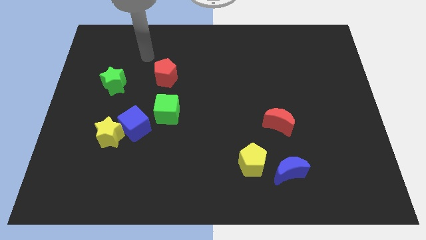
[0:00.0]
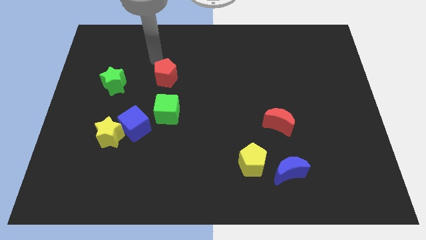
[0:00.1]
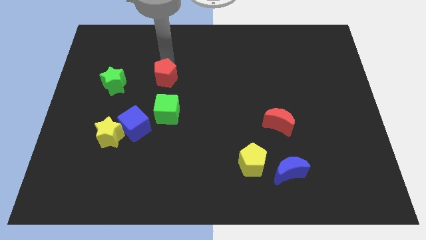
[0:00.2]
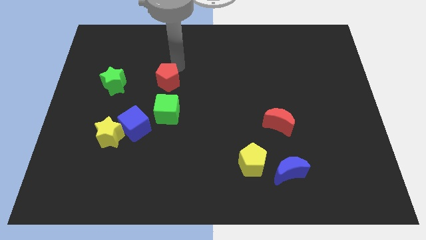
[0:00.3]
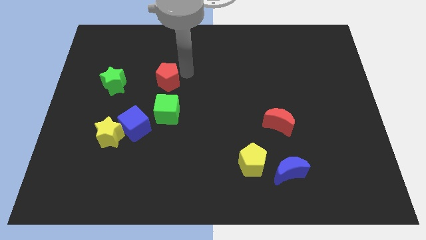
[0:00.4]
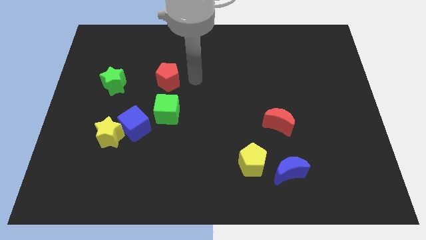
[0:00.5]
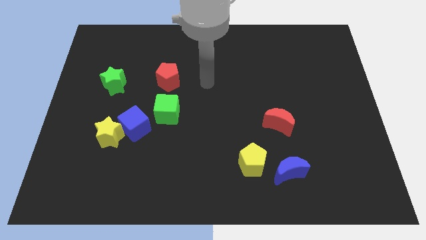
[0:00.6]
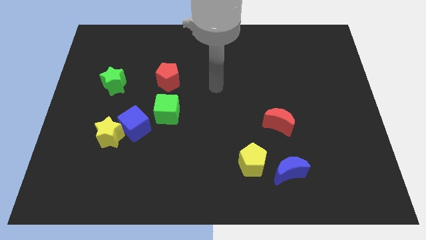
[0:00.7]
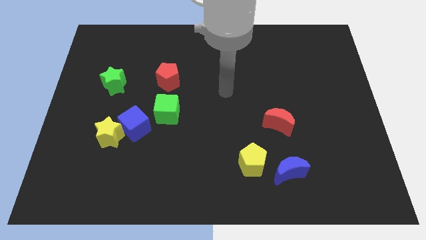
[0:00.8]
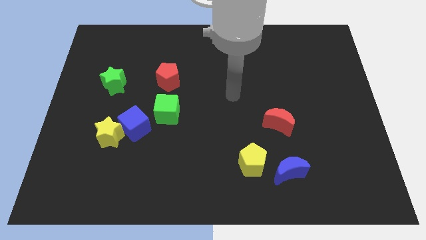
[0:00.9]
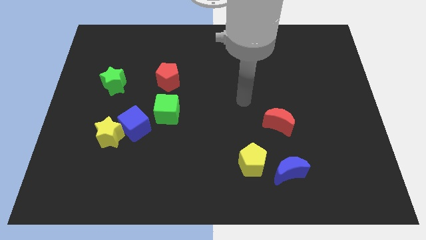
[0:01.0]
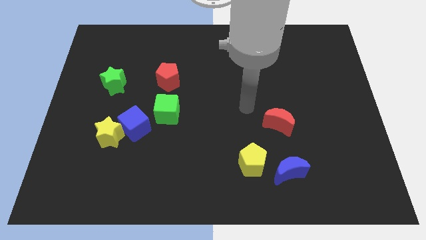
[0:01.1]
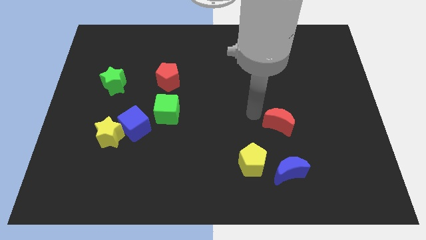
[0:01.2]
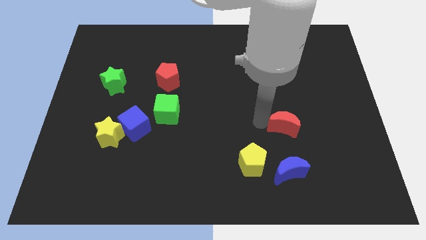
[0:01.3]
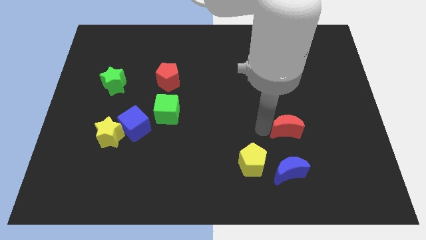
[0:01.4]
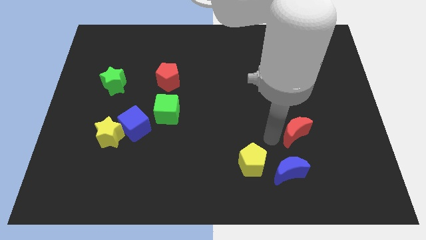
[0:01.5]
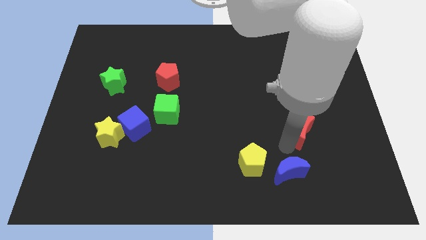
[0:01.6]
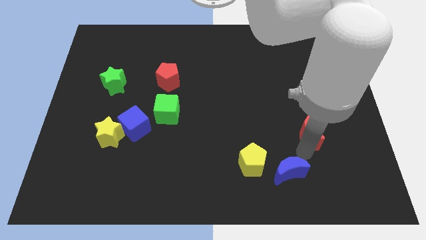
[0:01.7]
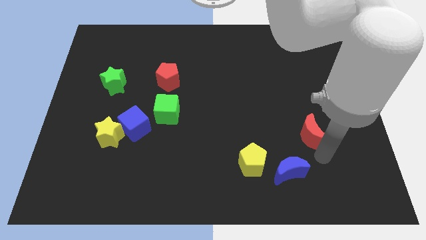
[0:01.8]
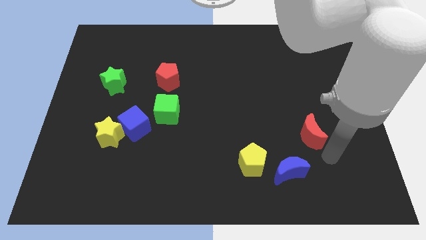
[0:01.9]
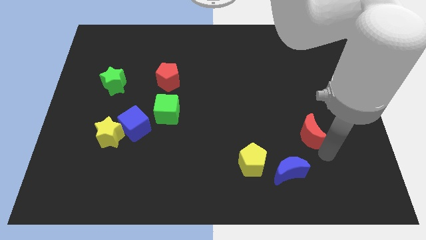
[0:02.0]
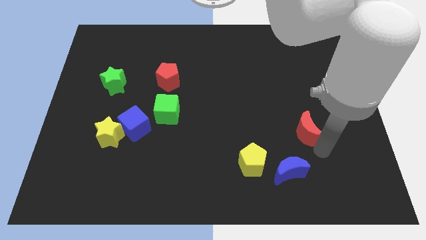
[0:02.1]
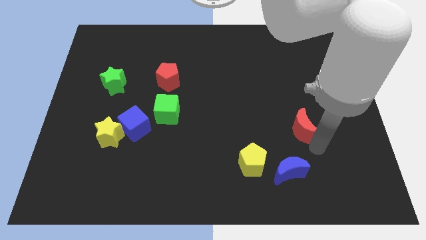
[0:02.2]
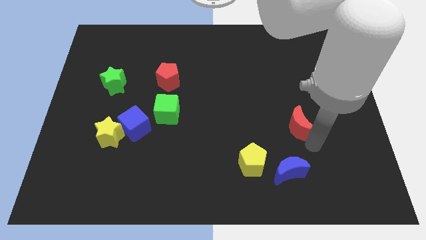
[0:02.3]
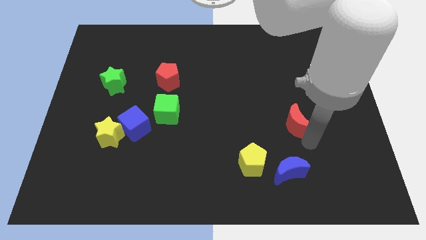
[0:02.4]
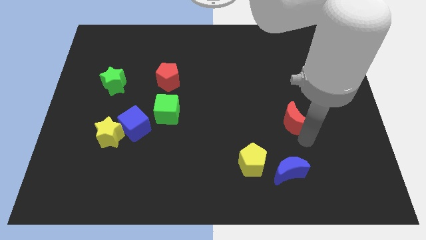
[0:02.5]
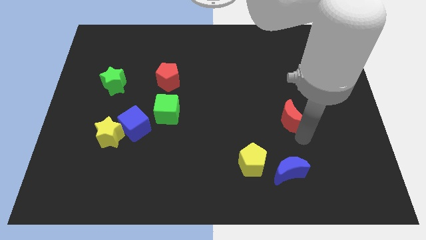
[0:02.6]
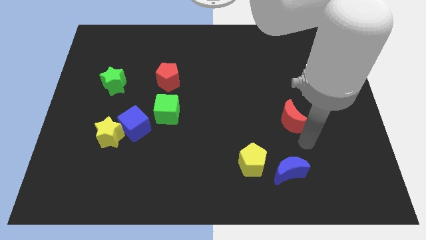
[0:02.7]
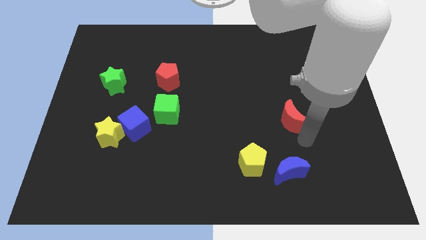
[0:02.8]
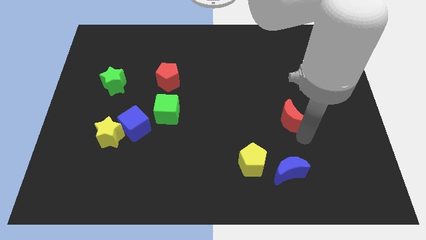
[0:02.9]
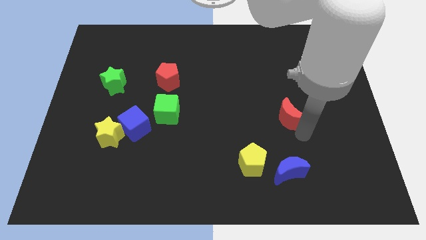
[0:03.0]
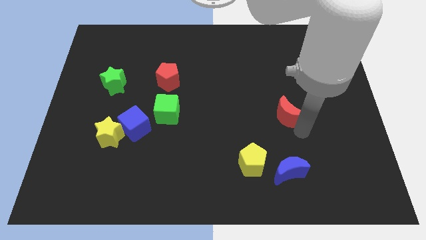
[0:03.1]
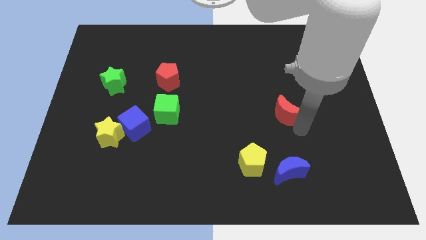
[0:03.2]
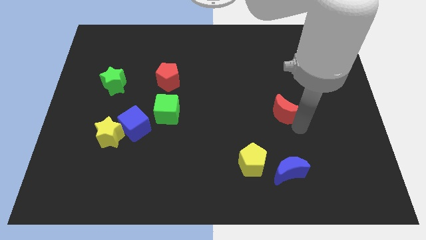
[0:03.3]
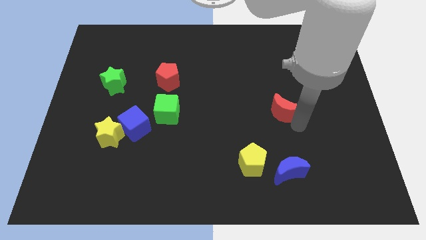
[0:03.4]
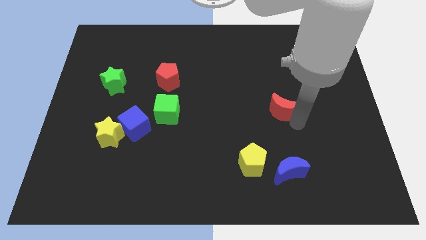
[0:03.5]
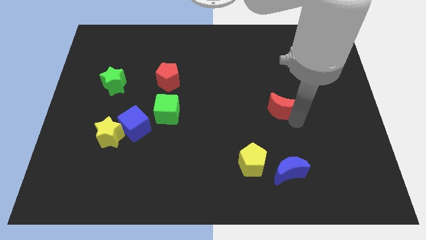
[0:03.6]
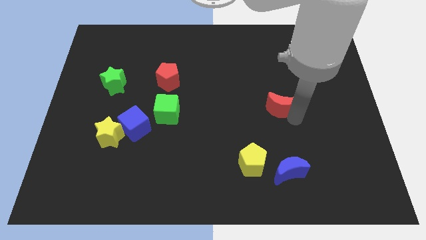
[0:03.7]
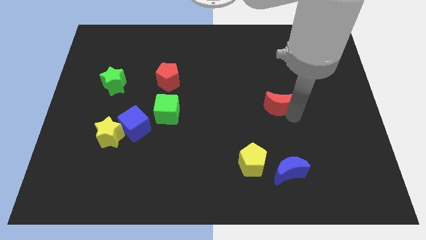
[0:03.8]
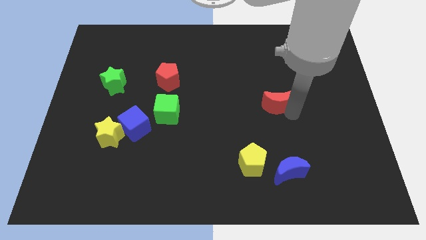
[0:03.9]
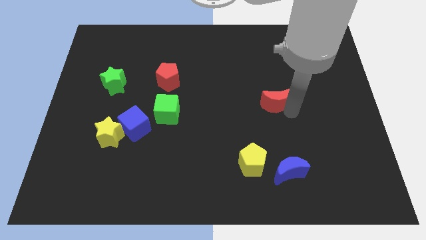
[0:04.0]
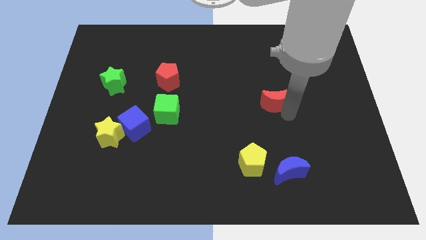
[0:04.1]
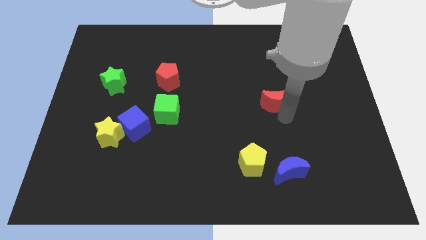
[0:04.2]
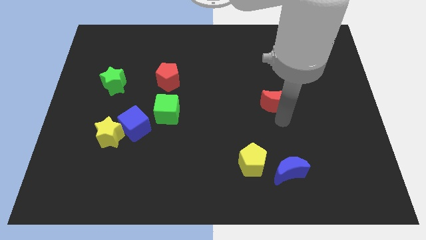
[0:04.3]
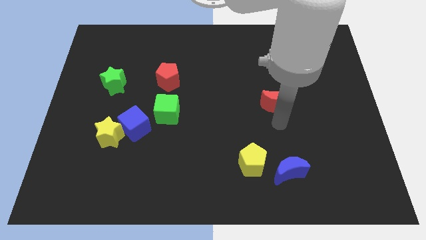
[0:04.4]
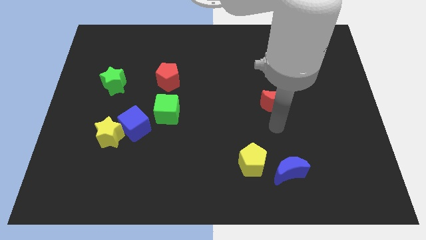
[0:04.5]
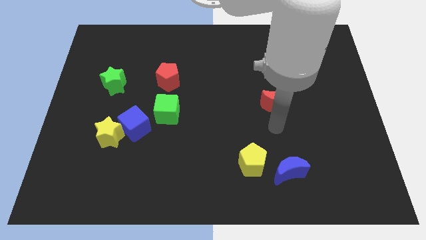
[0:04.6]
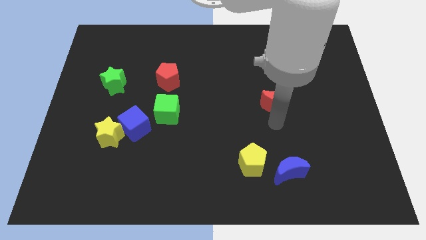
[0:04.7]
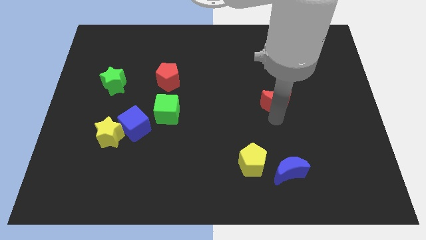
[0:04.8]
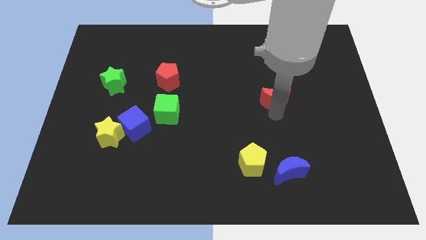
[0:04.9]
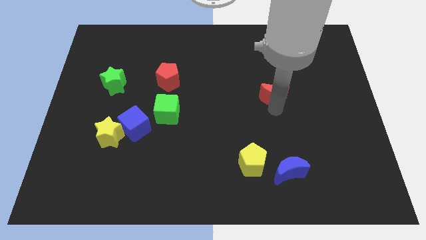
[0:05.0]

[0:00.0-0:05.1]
slightly move the red moon upwards

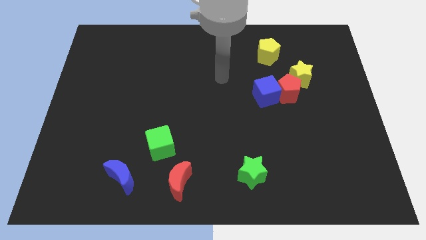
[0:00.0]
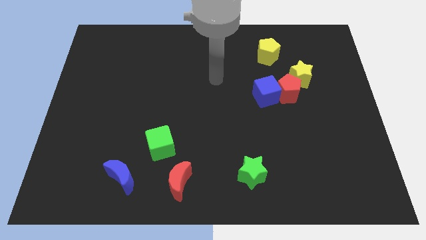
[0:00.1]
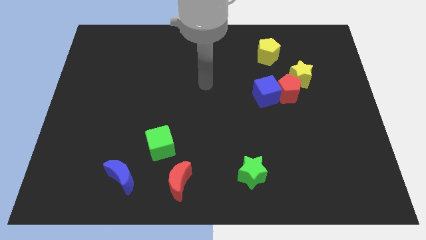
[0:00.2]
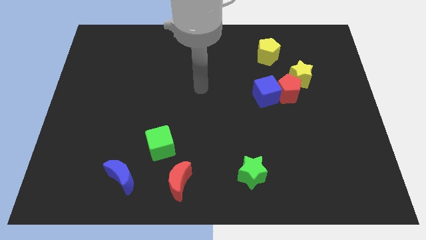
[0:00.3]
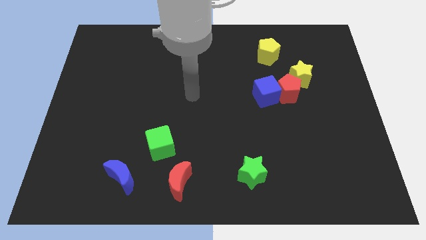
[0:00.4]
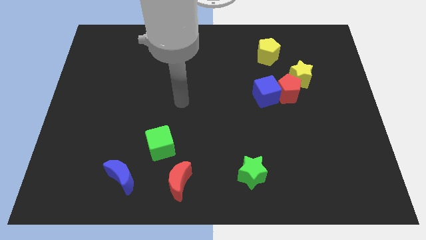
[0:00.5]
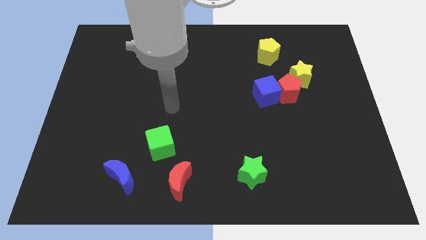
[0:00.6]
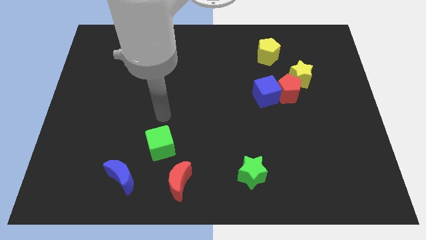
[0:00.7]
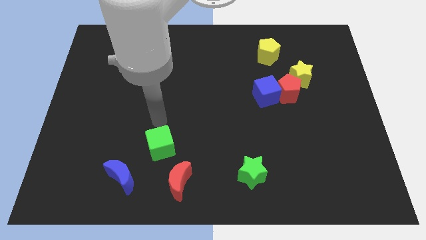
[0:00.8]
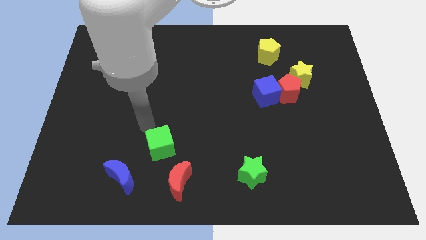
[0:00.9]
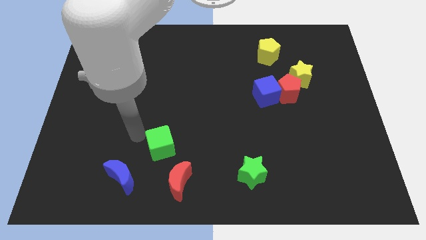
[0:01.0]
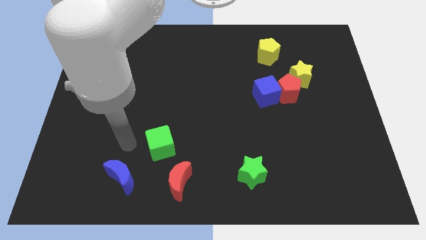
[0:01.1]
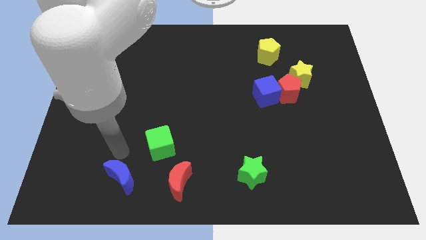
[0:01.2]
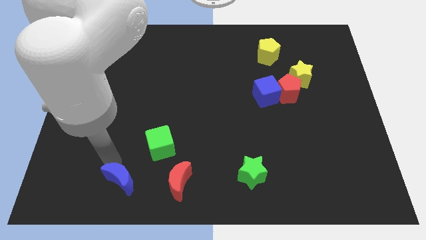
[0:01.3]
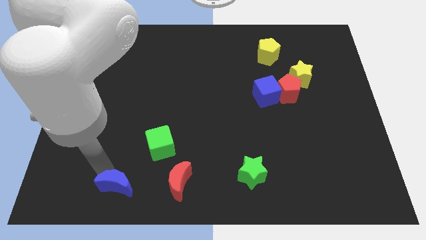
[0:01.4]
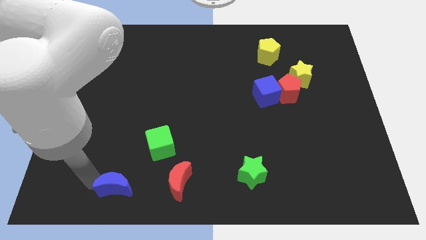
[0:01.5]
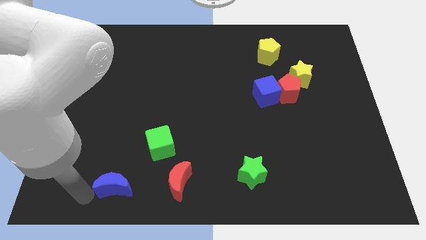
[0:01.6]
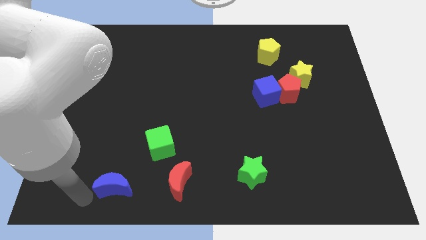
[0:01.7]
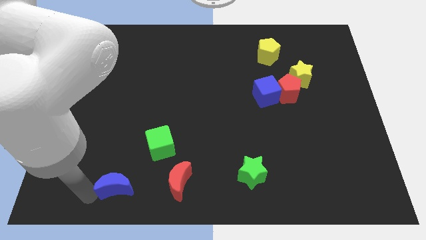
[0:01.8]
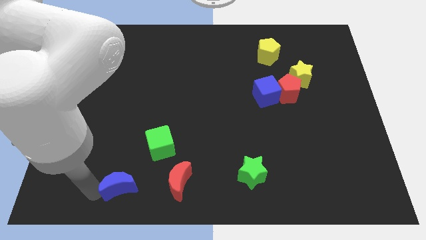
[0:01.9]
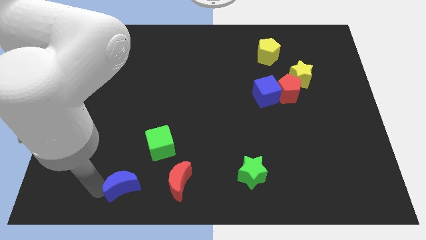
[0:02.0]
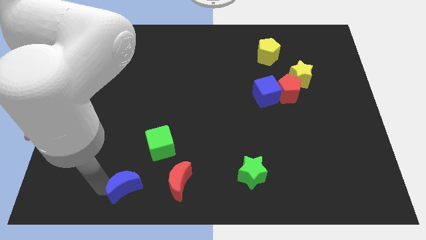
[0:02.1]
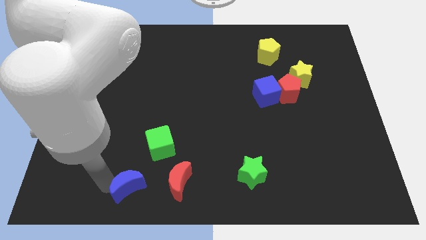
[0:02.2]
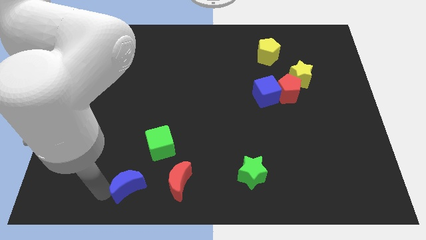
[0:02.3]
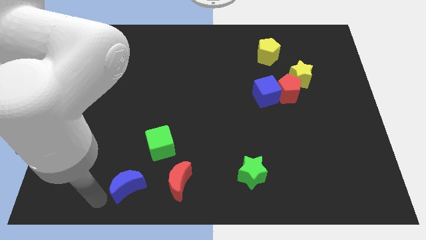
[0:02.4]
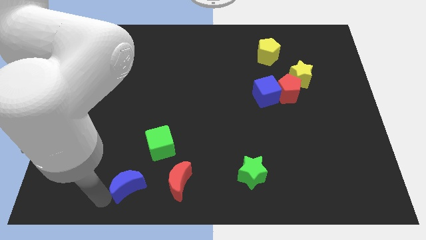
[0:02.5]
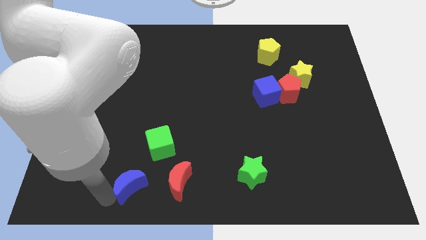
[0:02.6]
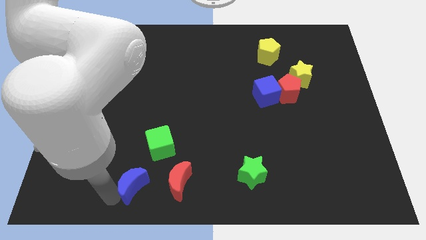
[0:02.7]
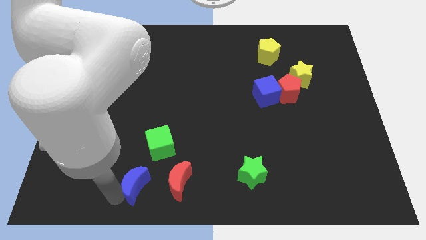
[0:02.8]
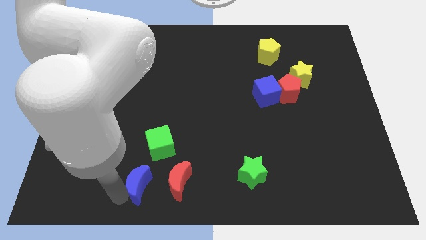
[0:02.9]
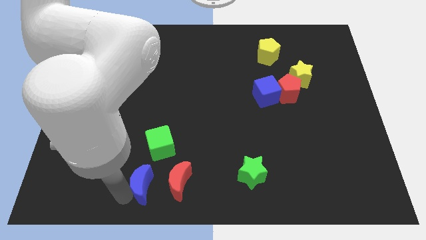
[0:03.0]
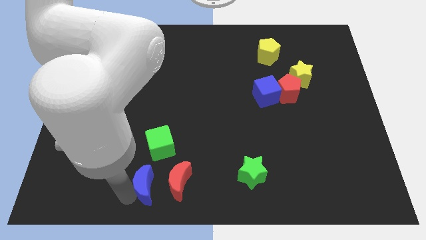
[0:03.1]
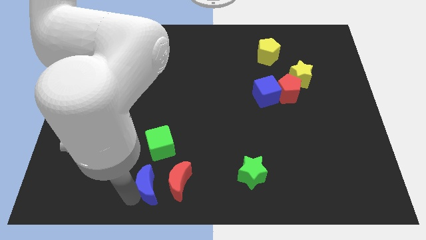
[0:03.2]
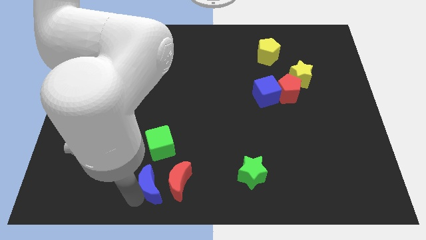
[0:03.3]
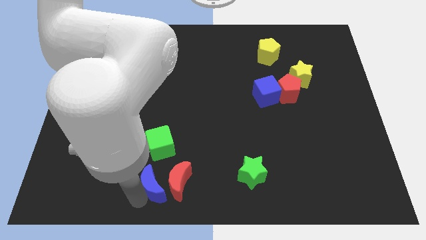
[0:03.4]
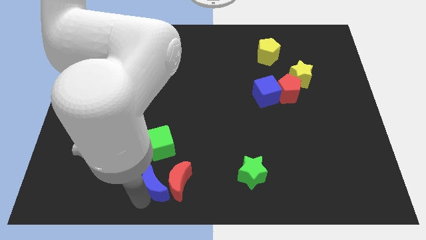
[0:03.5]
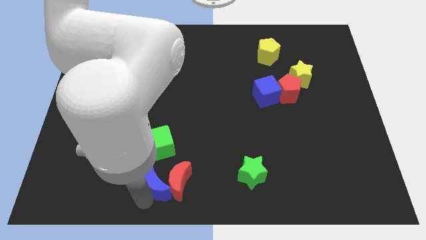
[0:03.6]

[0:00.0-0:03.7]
slightly push the blue moon right
